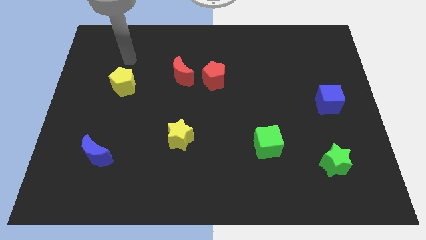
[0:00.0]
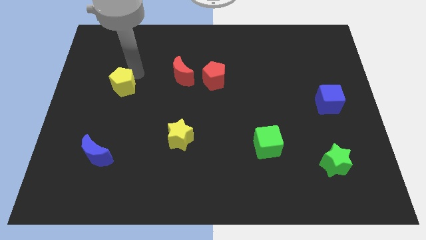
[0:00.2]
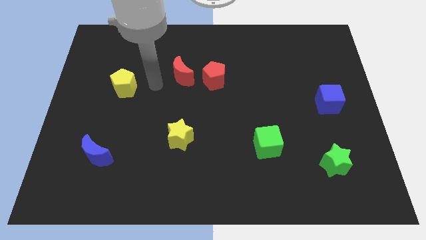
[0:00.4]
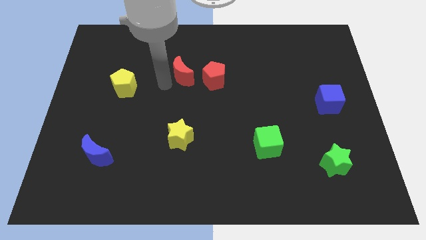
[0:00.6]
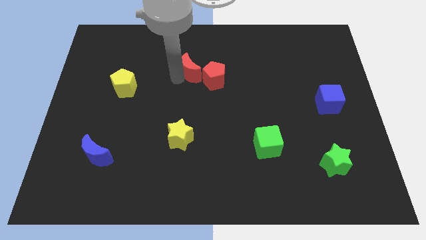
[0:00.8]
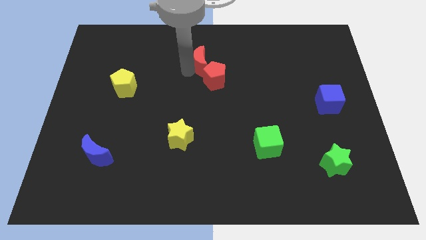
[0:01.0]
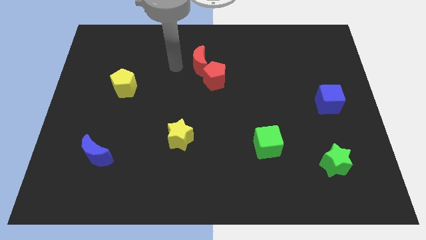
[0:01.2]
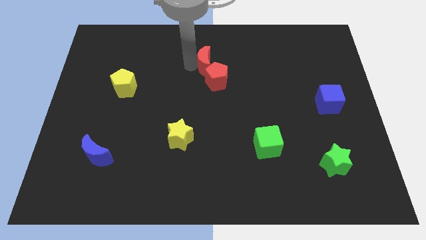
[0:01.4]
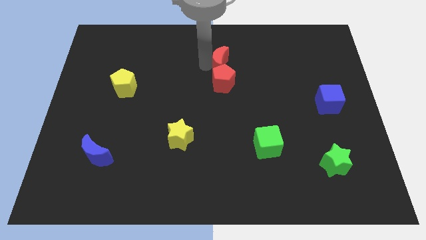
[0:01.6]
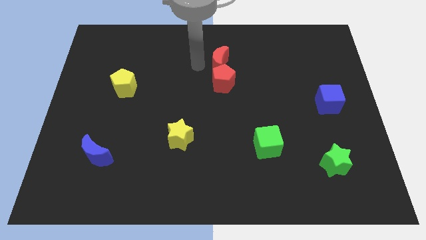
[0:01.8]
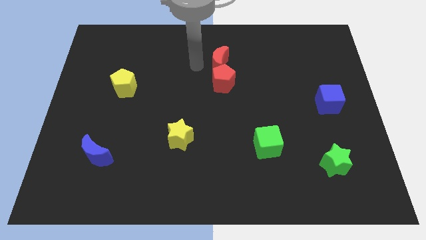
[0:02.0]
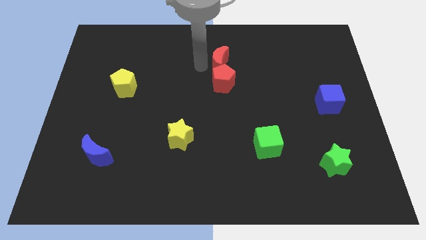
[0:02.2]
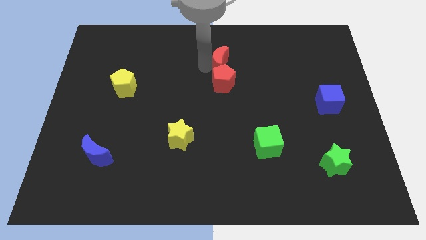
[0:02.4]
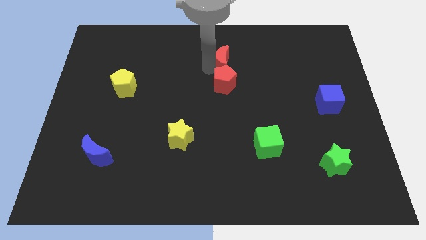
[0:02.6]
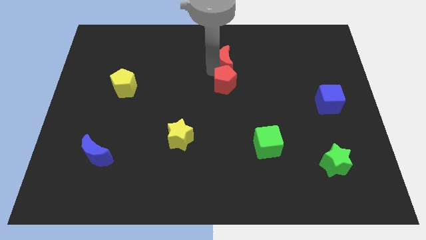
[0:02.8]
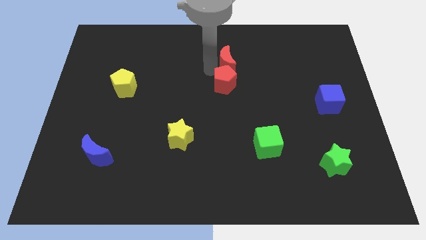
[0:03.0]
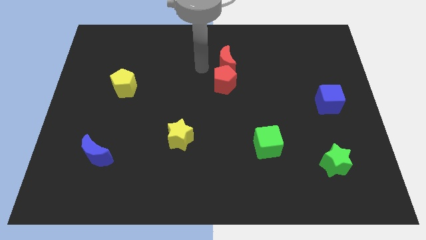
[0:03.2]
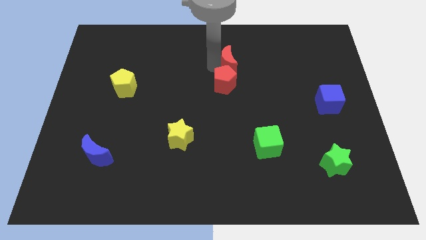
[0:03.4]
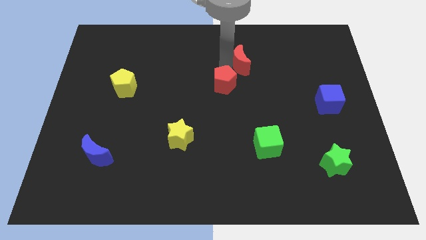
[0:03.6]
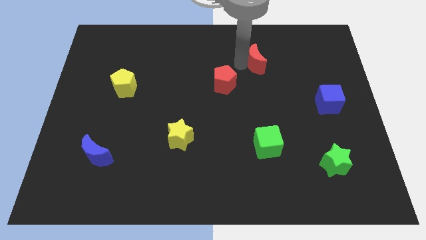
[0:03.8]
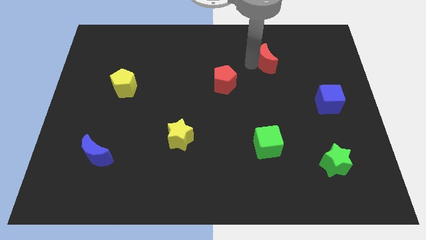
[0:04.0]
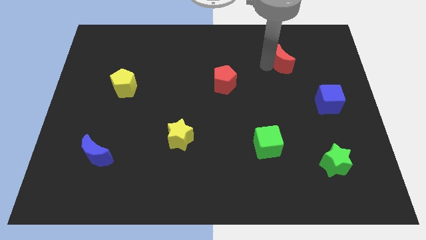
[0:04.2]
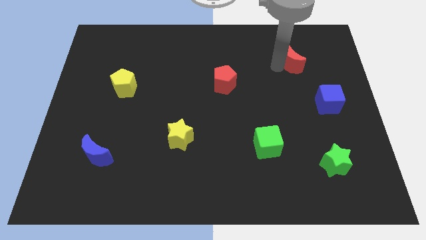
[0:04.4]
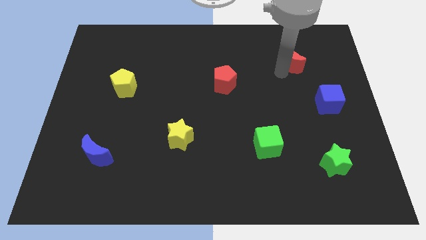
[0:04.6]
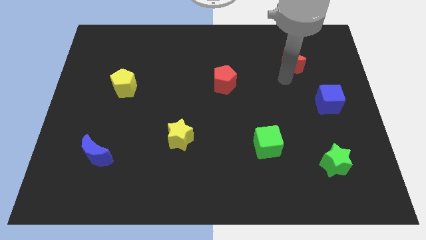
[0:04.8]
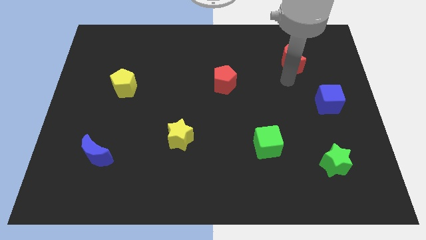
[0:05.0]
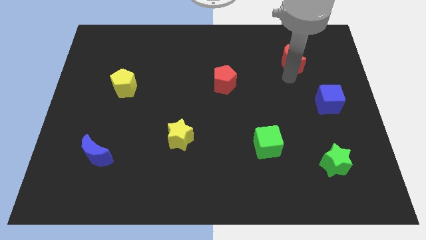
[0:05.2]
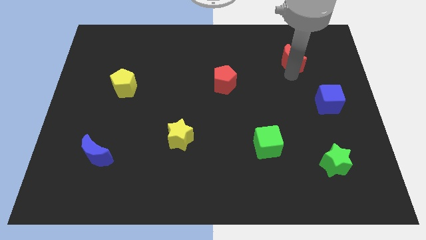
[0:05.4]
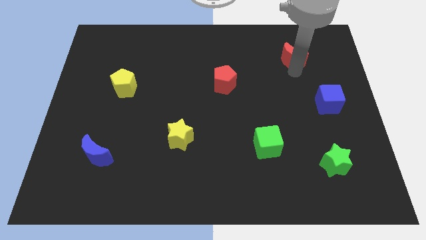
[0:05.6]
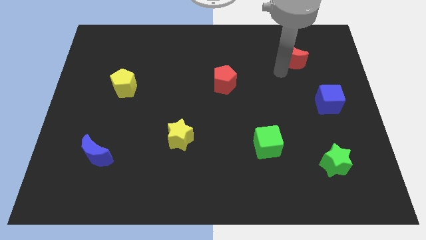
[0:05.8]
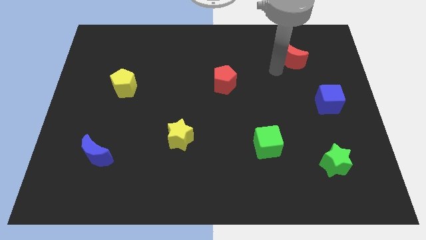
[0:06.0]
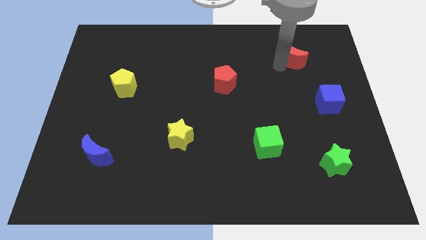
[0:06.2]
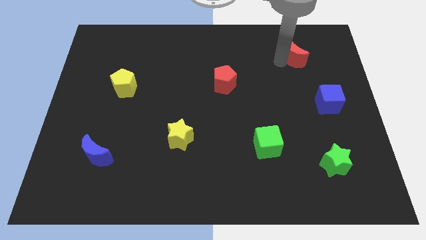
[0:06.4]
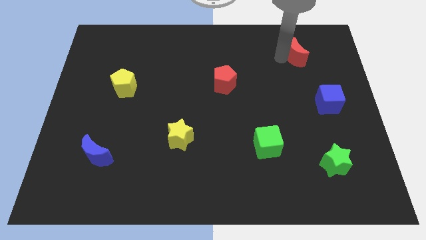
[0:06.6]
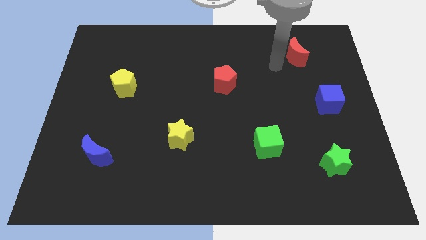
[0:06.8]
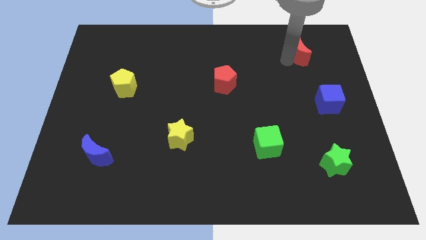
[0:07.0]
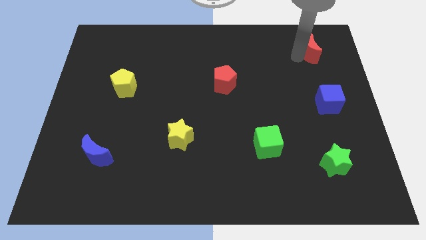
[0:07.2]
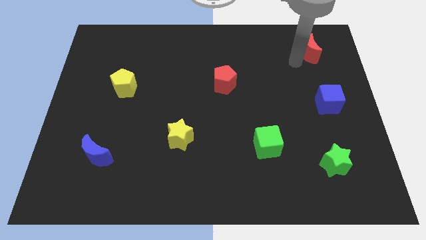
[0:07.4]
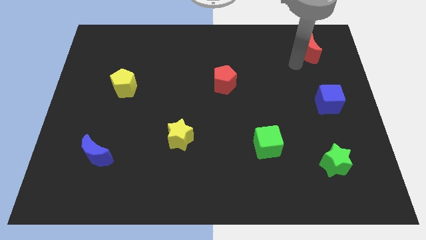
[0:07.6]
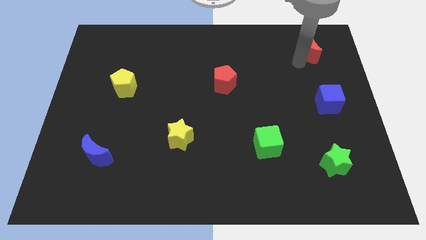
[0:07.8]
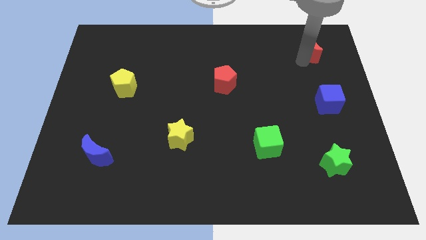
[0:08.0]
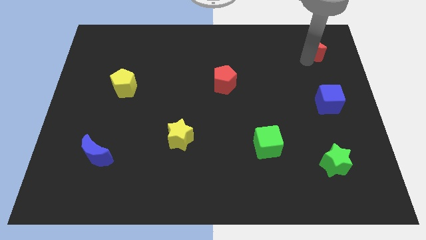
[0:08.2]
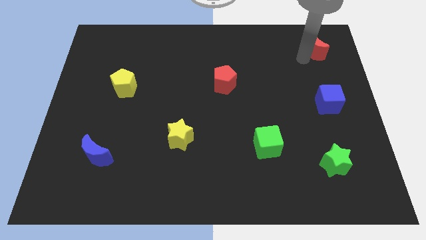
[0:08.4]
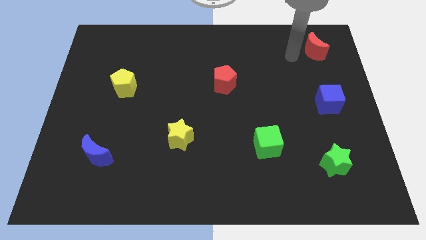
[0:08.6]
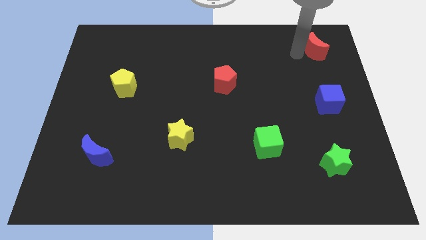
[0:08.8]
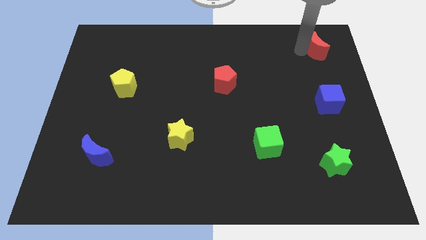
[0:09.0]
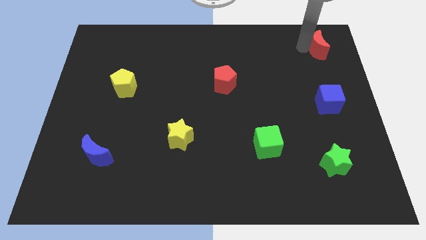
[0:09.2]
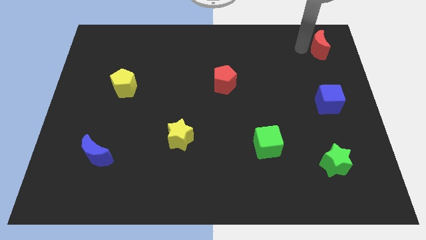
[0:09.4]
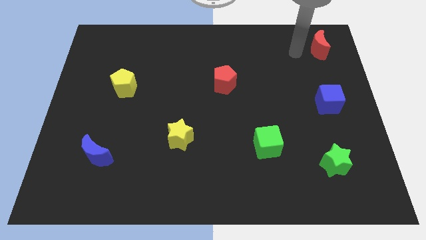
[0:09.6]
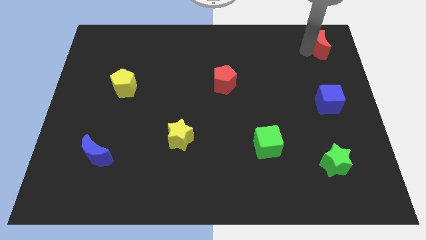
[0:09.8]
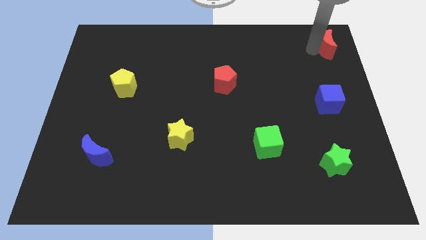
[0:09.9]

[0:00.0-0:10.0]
slide the red moon to the upper right corner
